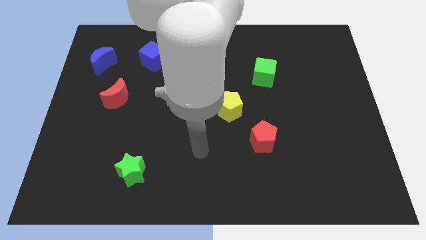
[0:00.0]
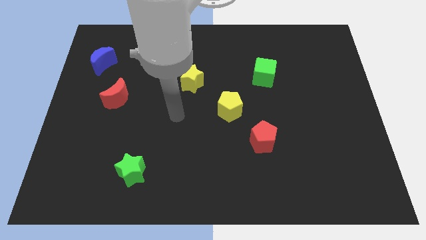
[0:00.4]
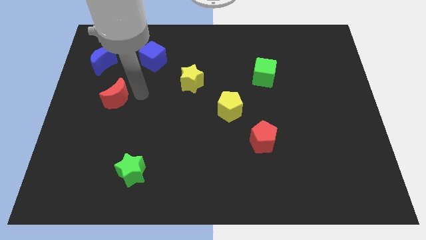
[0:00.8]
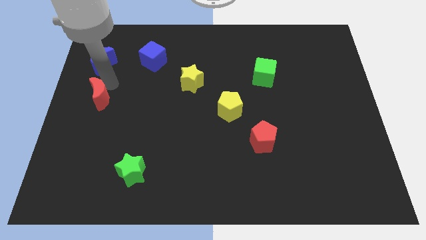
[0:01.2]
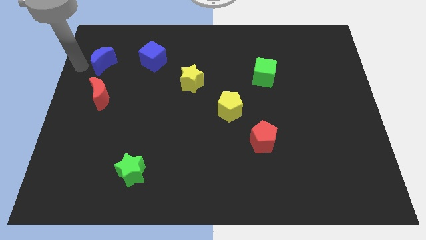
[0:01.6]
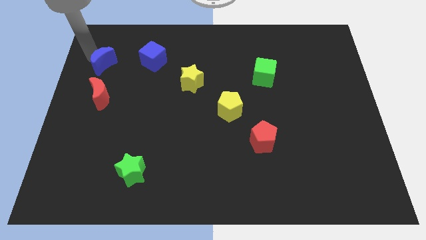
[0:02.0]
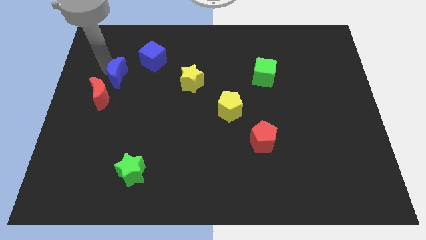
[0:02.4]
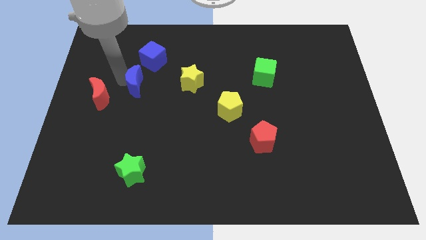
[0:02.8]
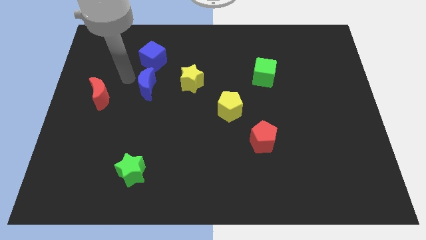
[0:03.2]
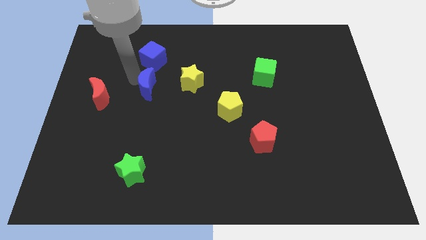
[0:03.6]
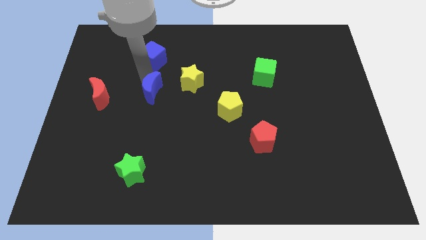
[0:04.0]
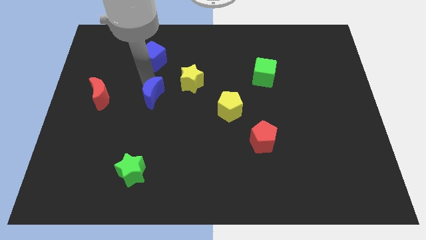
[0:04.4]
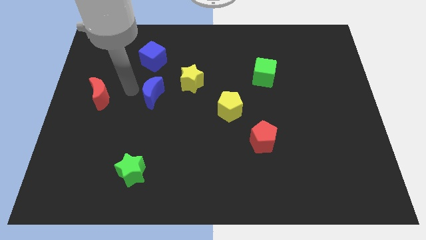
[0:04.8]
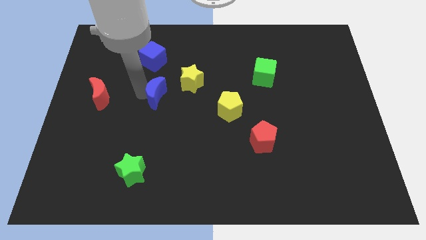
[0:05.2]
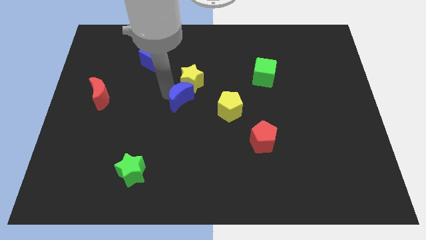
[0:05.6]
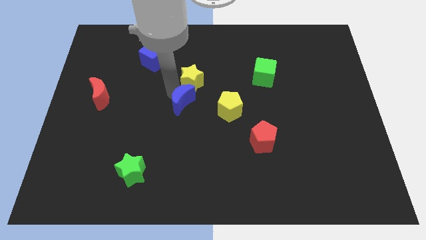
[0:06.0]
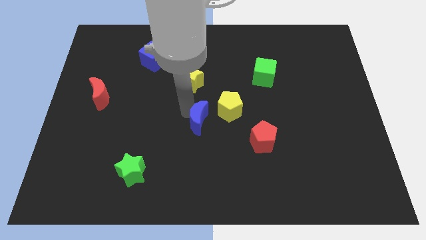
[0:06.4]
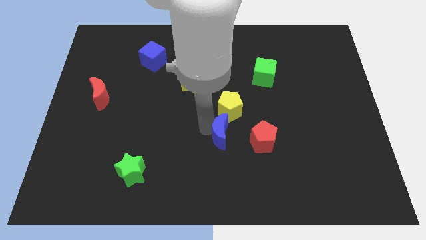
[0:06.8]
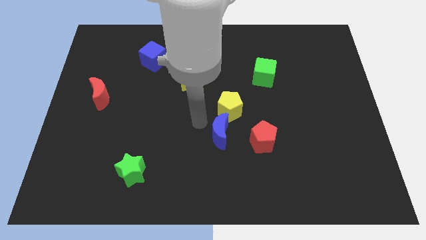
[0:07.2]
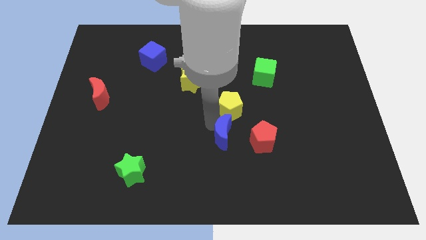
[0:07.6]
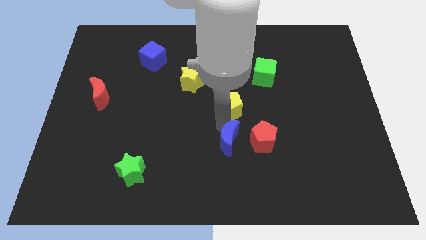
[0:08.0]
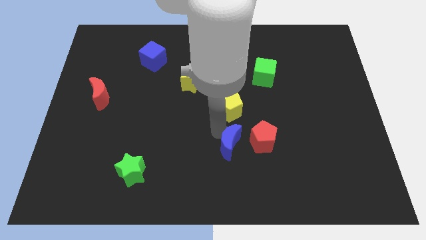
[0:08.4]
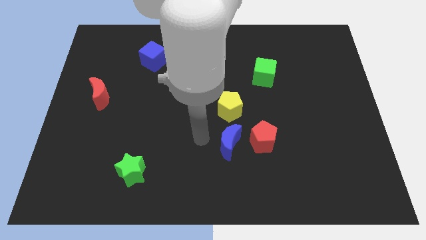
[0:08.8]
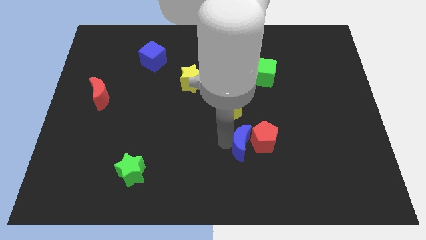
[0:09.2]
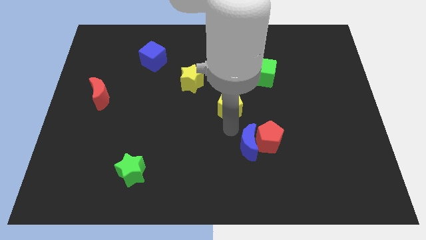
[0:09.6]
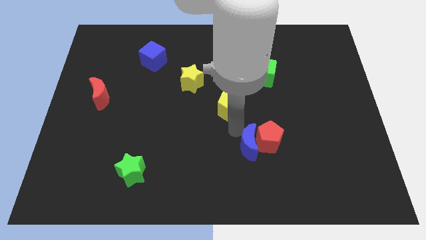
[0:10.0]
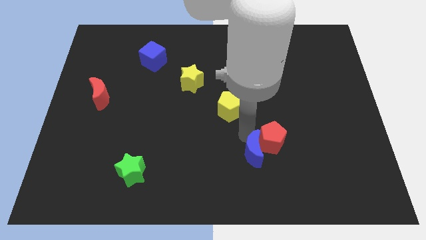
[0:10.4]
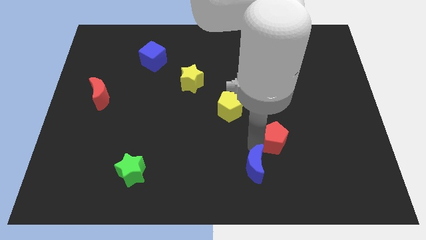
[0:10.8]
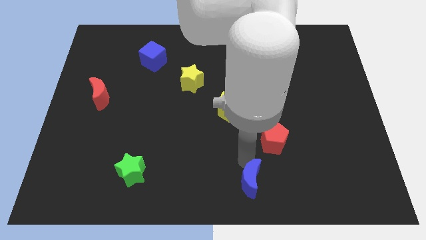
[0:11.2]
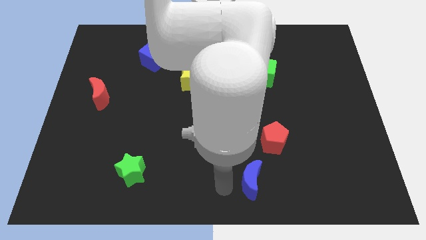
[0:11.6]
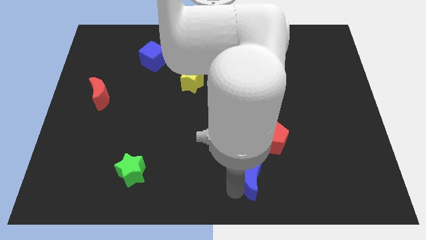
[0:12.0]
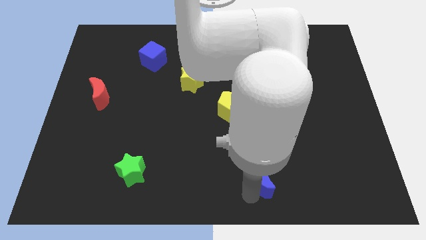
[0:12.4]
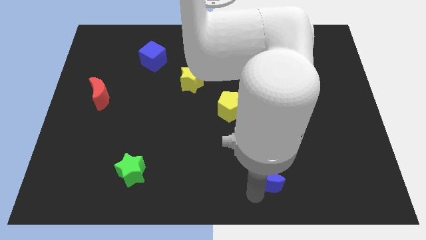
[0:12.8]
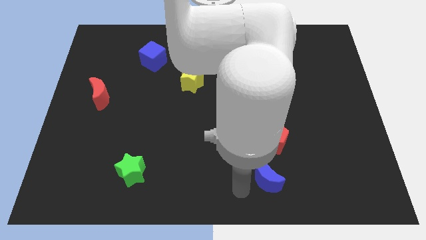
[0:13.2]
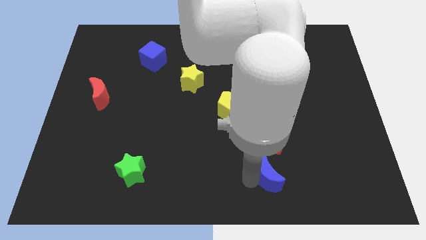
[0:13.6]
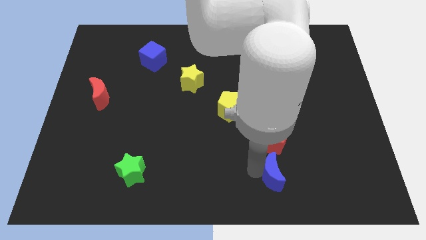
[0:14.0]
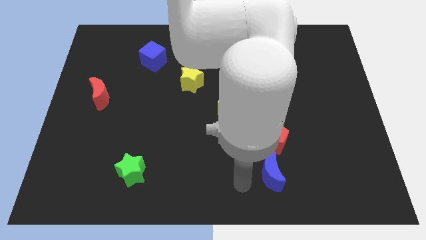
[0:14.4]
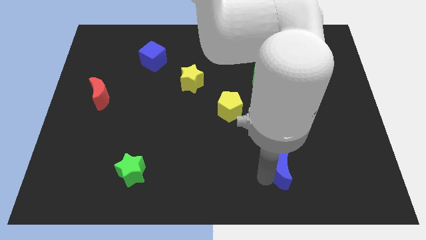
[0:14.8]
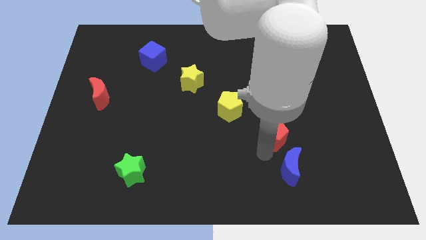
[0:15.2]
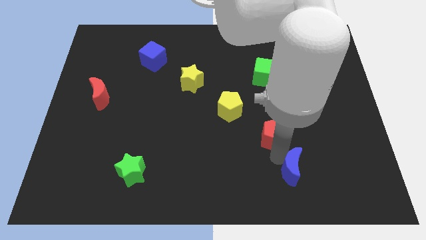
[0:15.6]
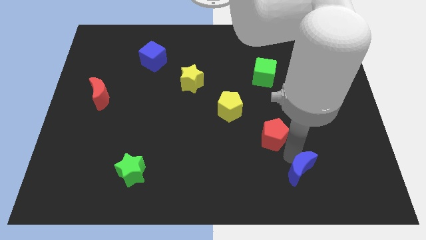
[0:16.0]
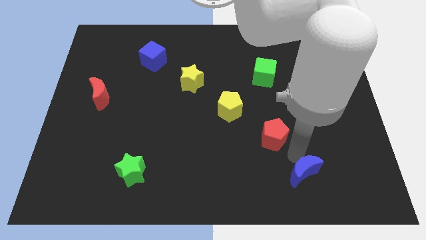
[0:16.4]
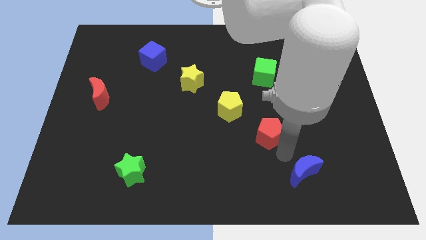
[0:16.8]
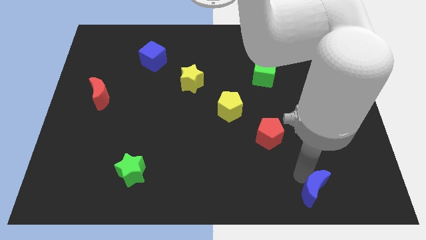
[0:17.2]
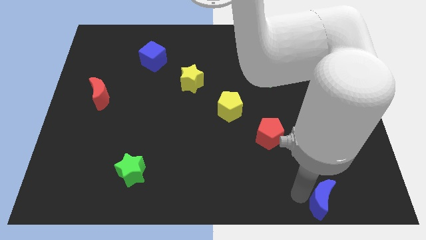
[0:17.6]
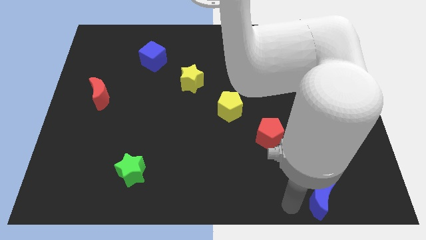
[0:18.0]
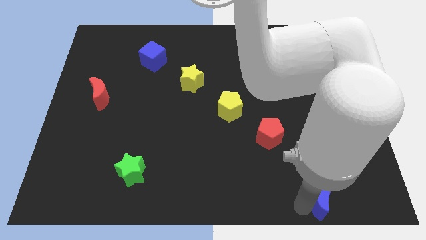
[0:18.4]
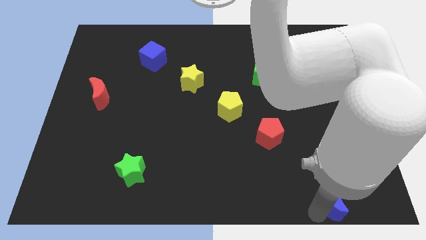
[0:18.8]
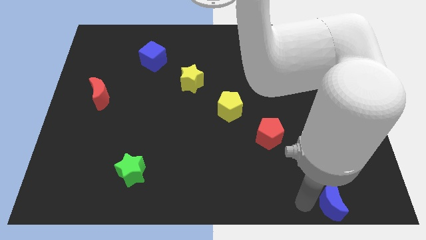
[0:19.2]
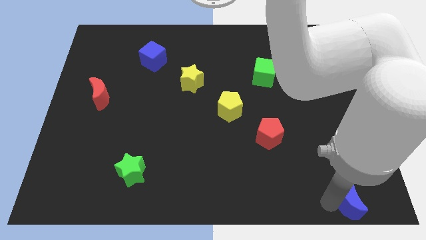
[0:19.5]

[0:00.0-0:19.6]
move the blue moon to the bottom right
